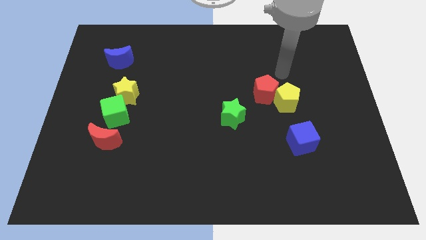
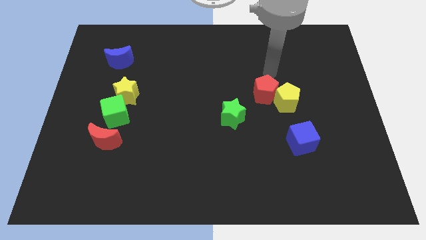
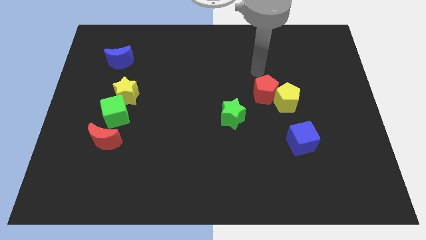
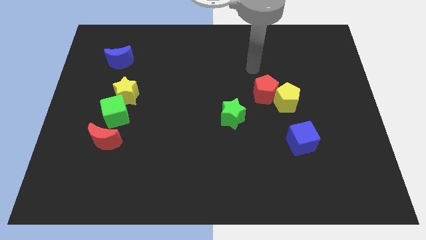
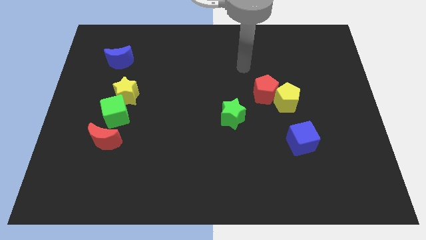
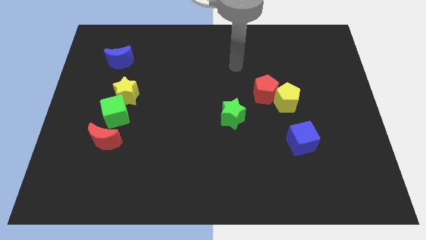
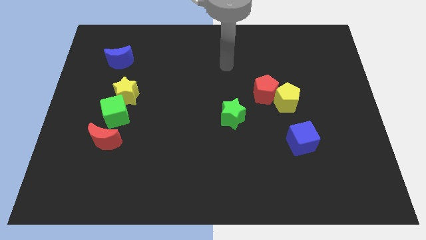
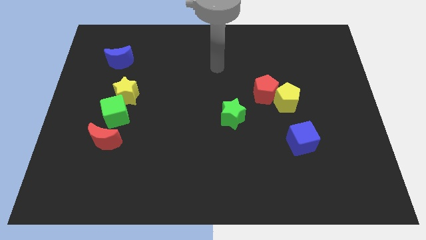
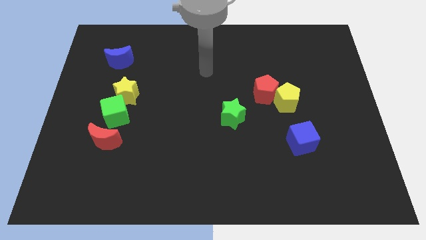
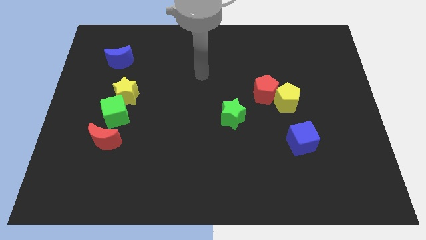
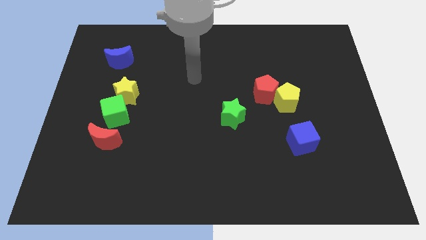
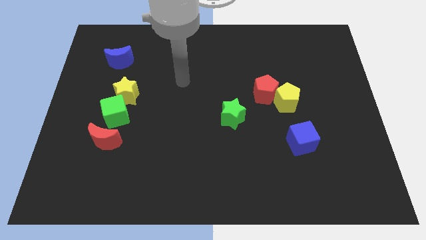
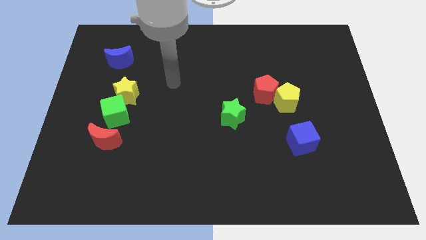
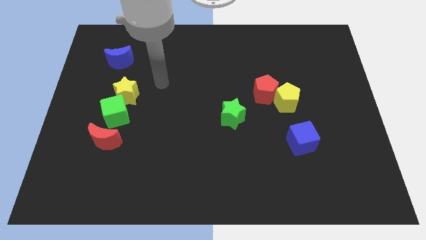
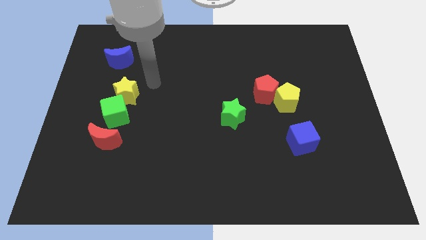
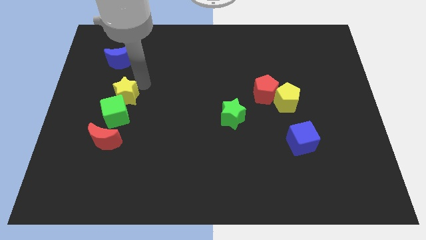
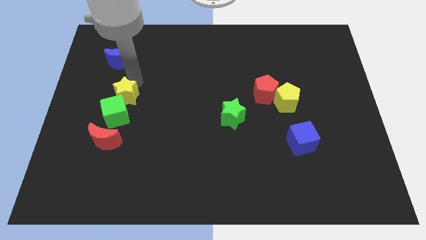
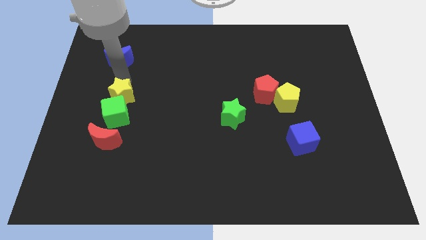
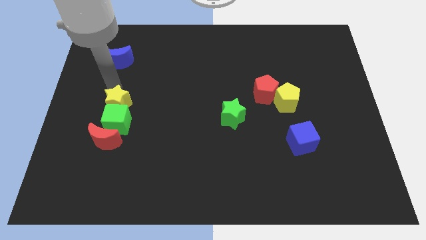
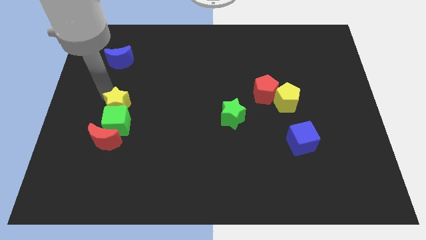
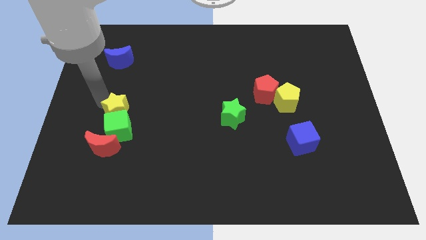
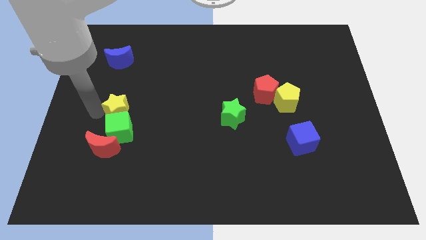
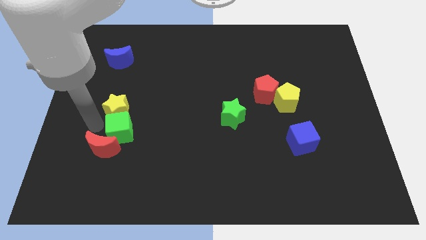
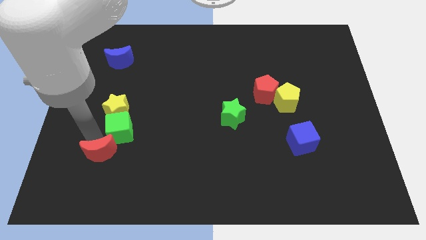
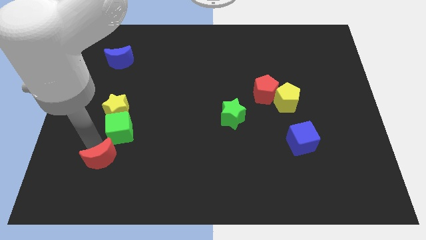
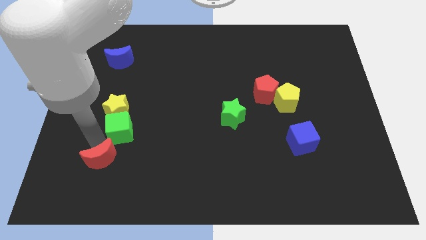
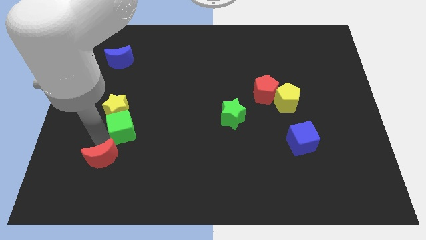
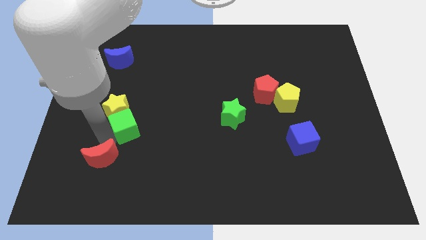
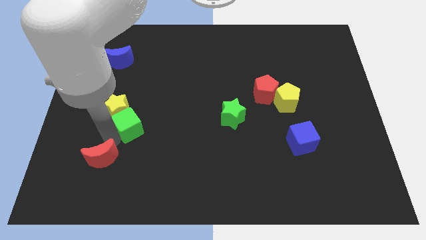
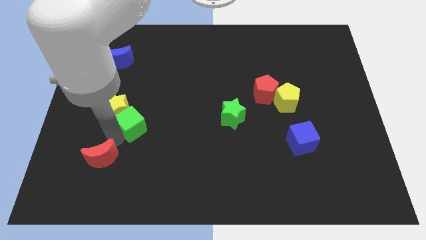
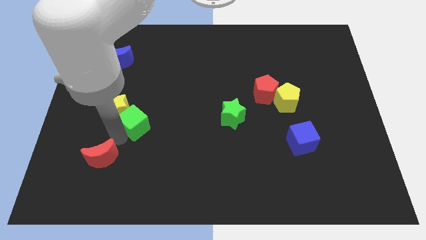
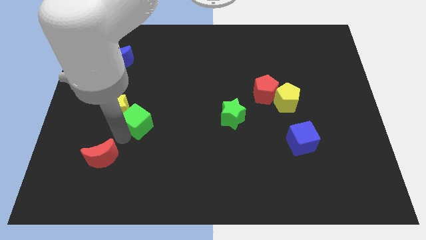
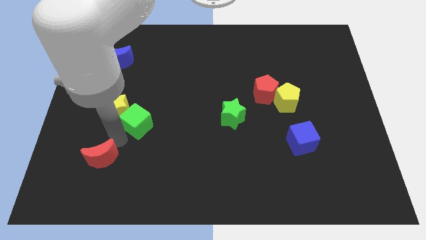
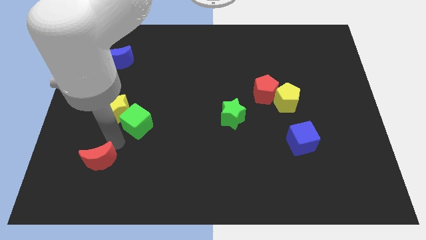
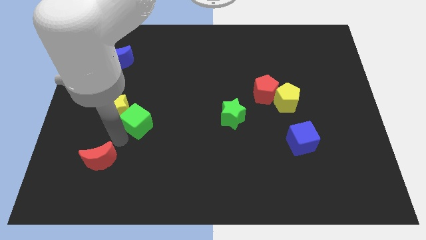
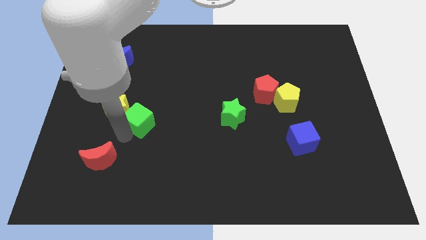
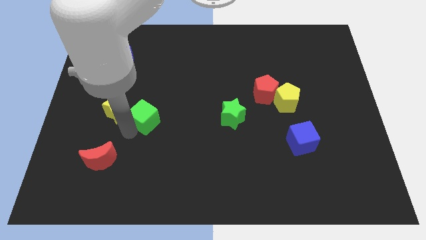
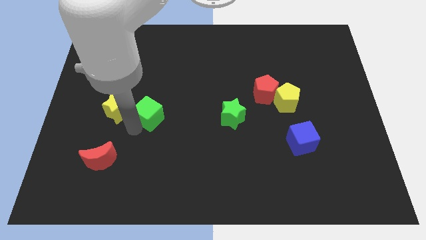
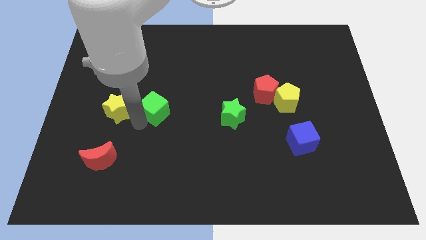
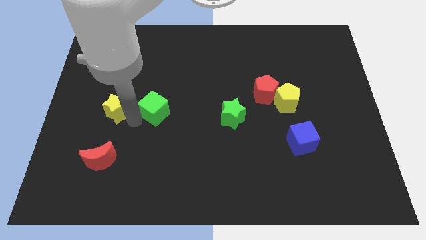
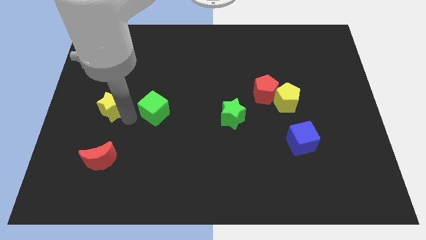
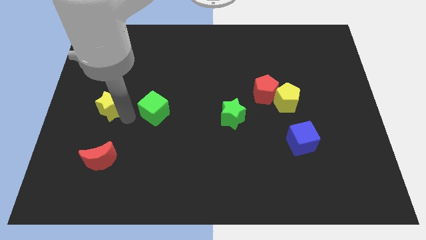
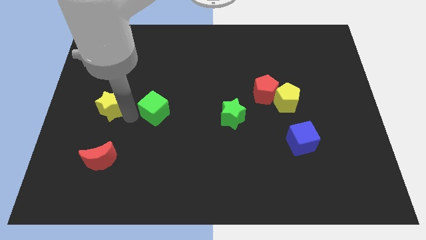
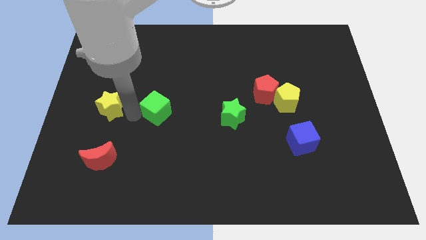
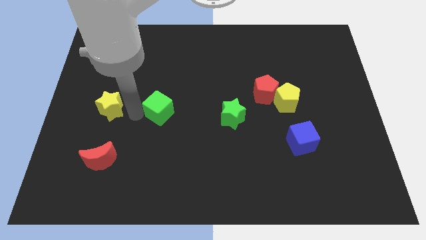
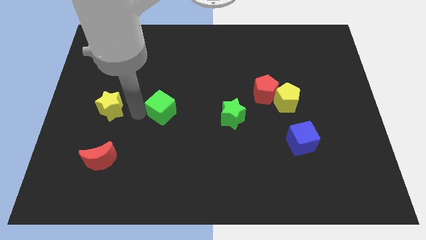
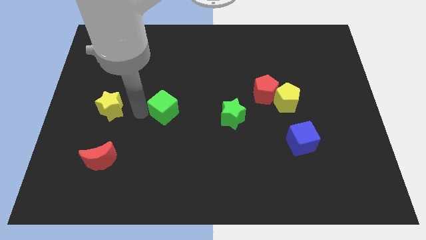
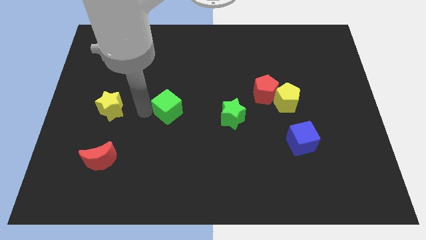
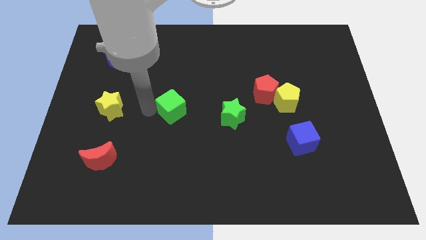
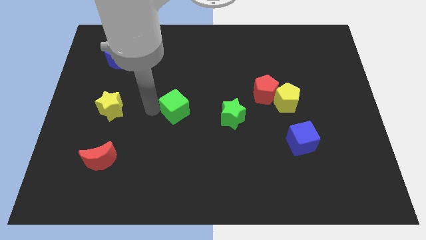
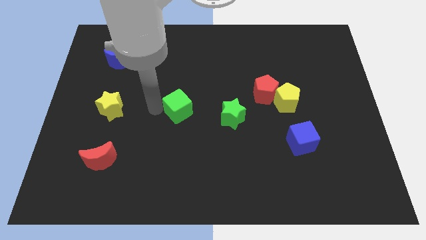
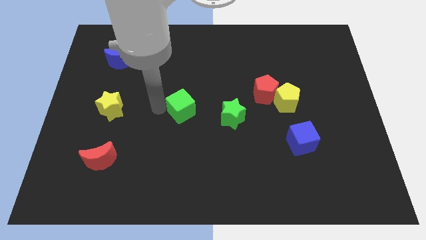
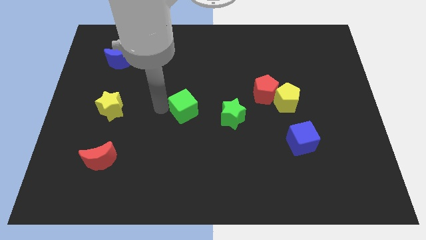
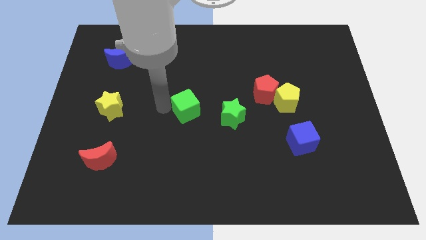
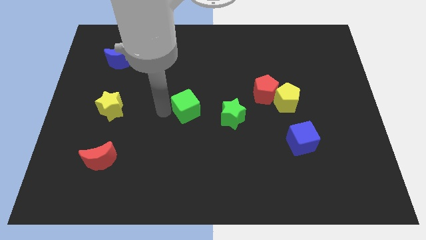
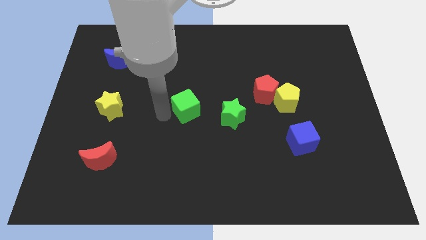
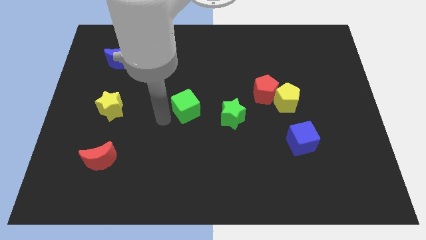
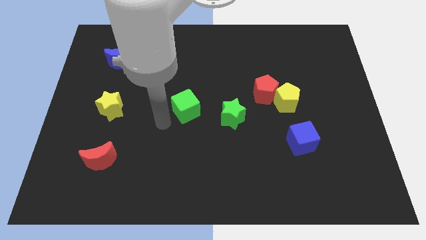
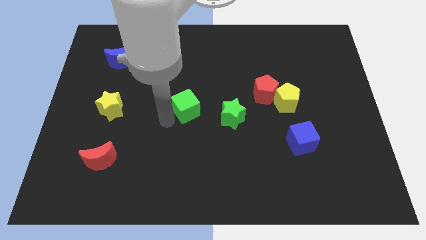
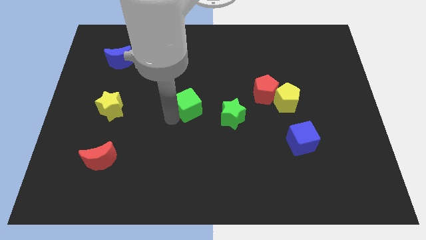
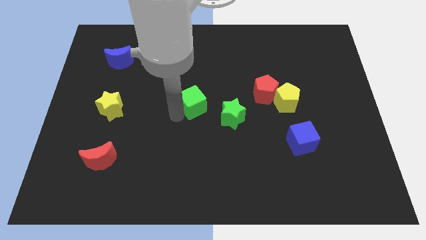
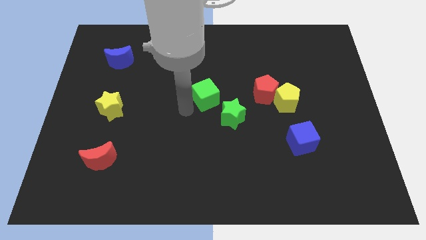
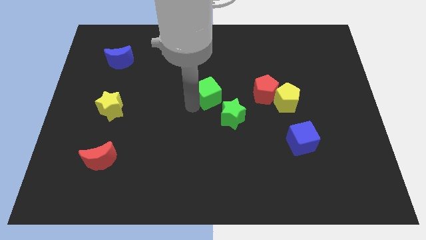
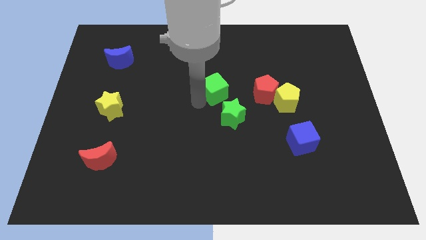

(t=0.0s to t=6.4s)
move the green cube to the top side of the green star

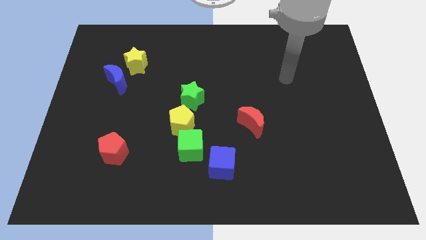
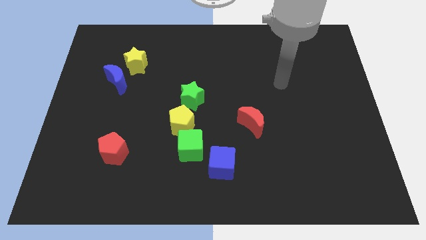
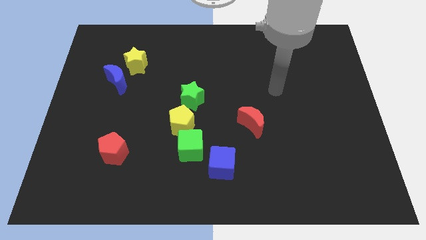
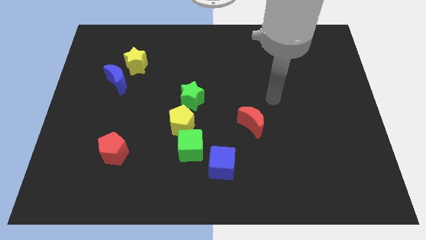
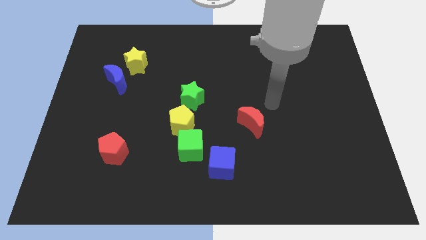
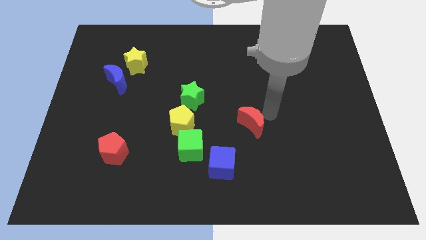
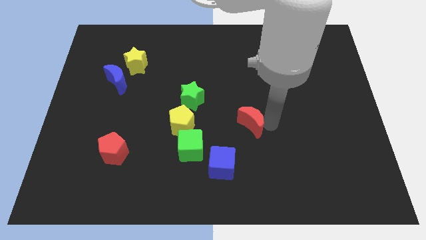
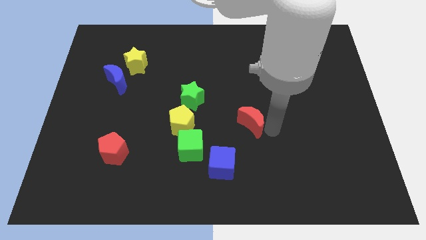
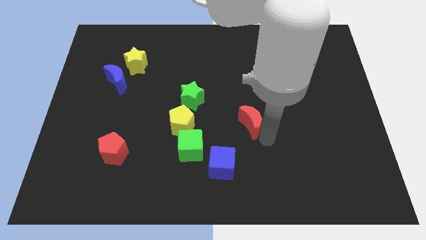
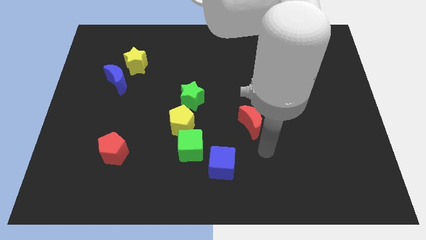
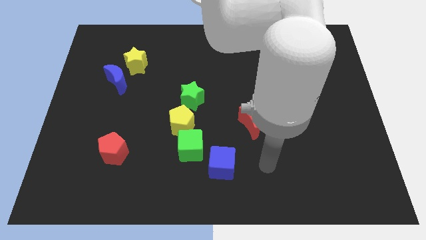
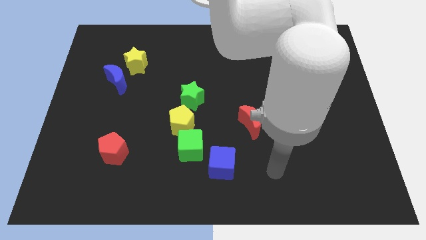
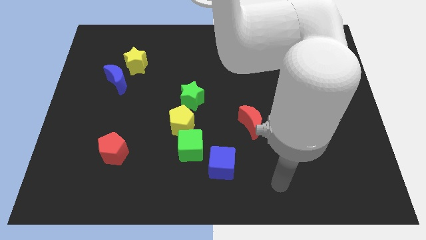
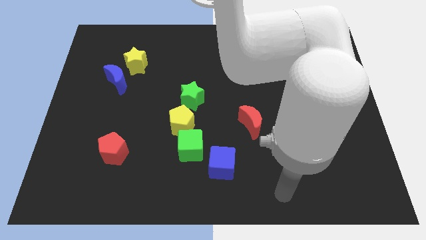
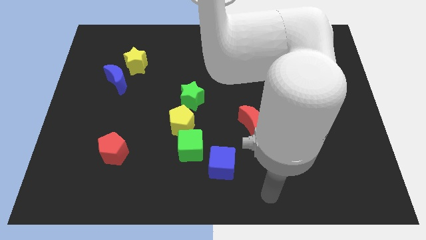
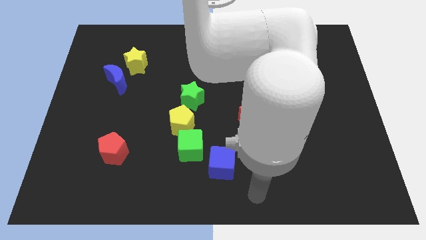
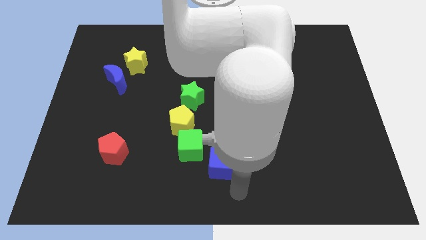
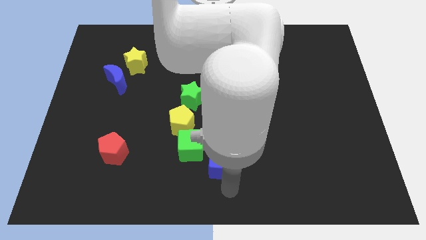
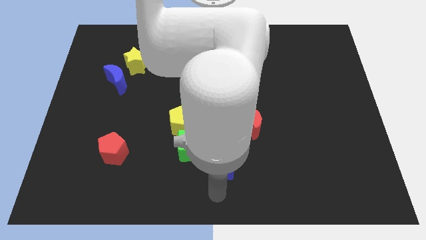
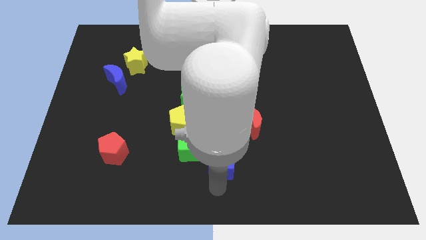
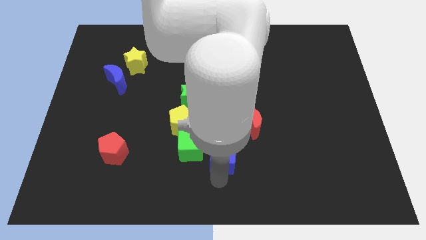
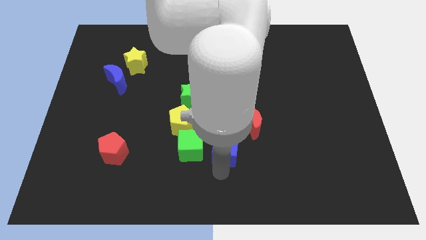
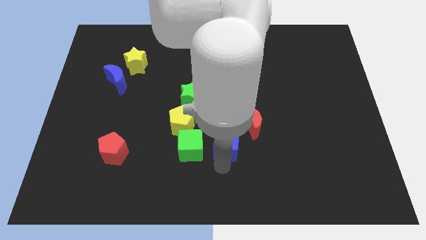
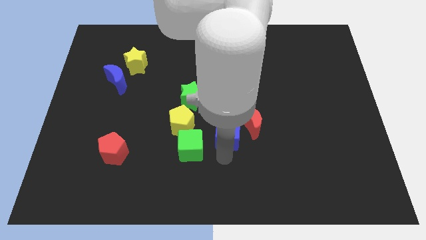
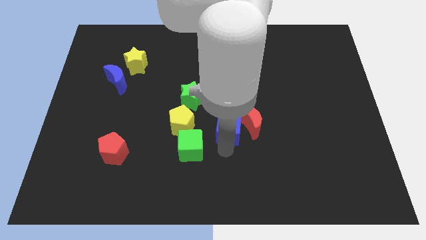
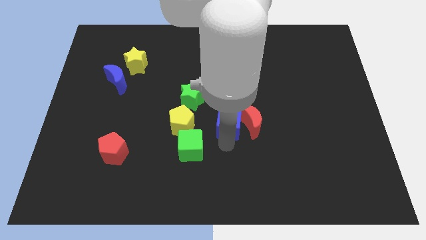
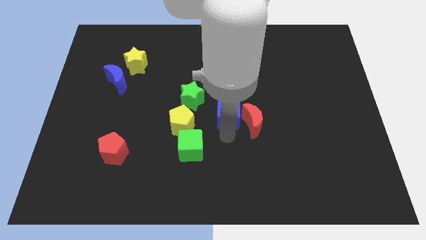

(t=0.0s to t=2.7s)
push the blue cube right of the green star
